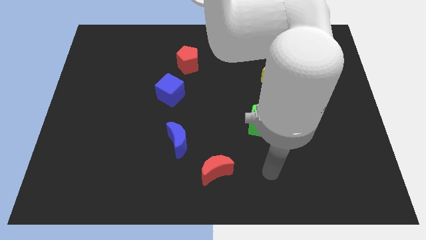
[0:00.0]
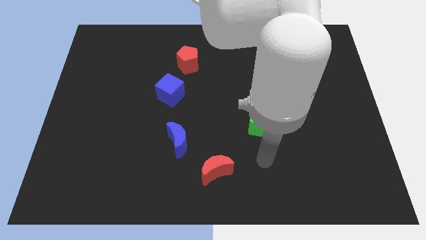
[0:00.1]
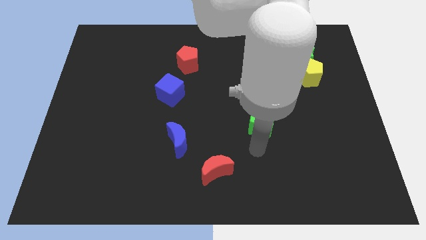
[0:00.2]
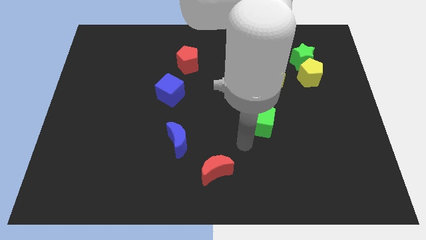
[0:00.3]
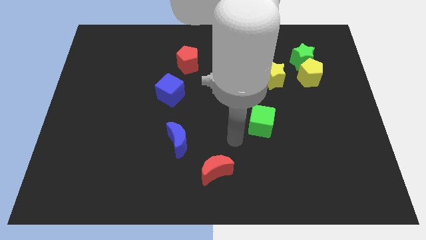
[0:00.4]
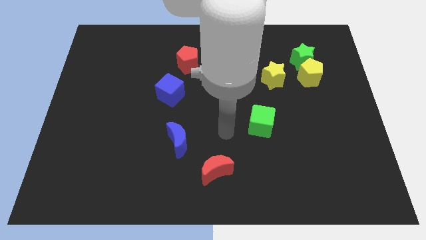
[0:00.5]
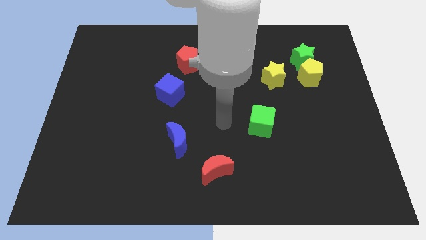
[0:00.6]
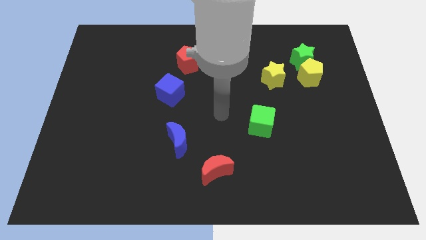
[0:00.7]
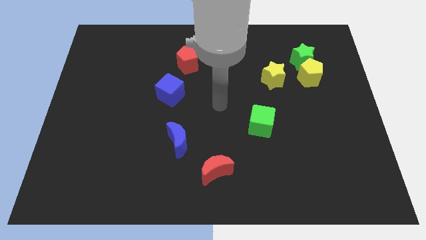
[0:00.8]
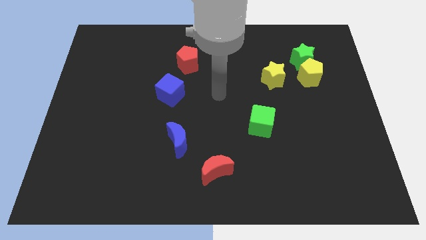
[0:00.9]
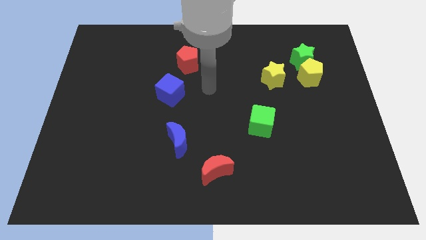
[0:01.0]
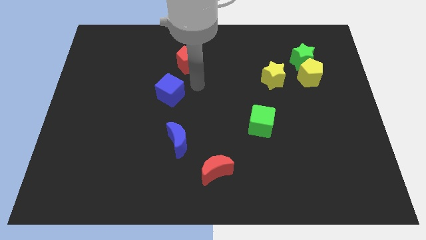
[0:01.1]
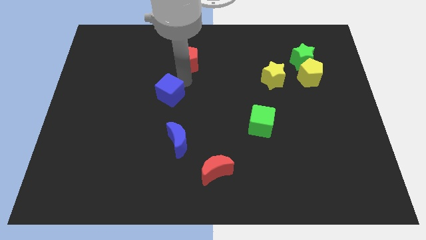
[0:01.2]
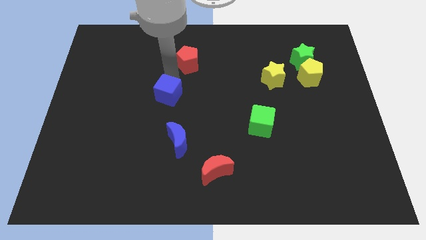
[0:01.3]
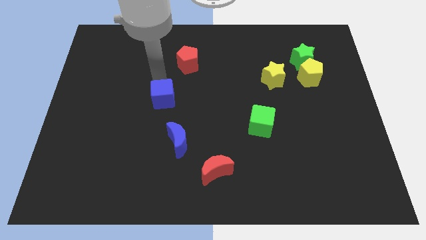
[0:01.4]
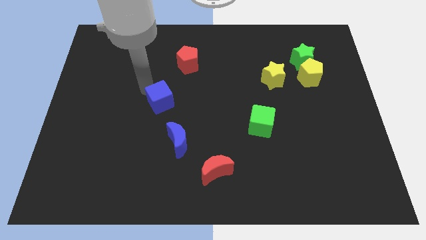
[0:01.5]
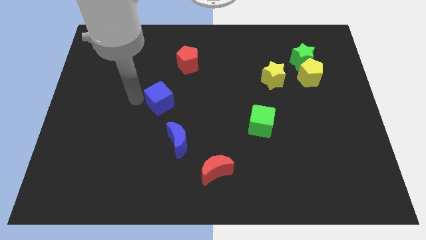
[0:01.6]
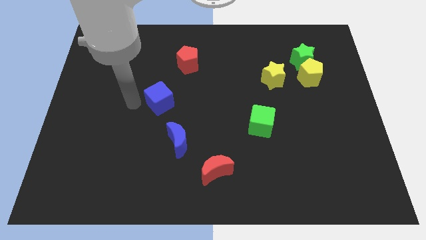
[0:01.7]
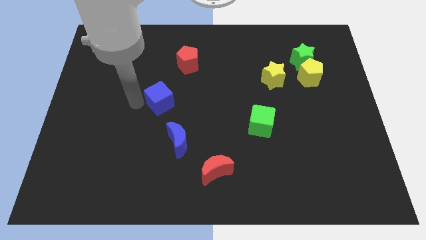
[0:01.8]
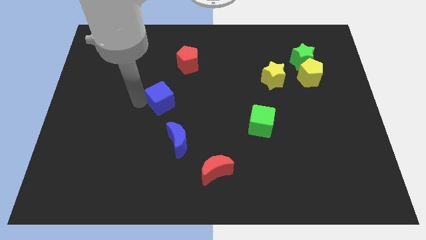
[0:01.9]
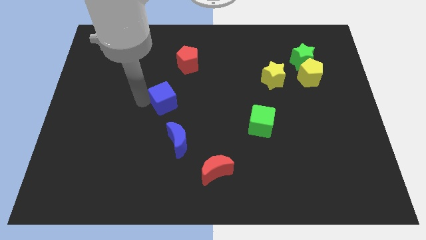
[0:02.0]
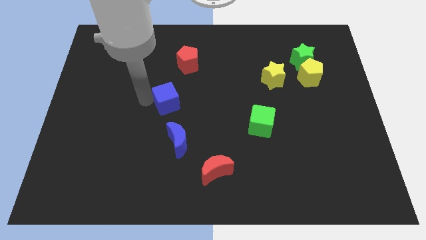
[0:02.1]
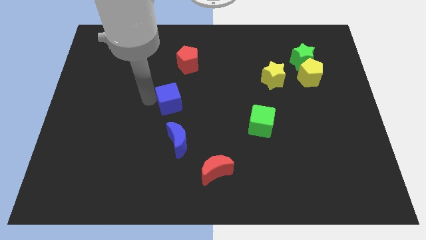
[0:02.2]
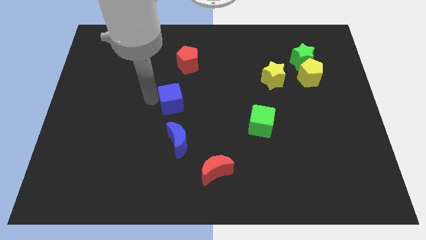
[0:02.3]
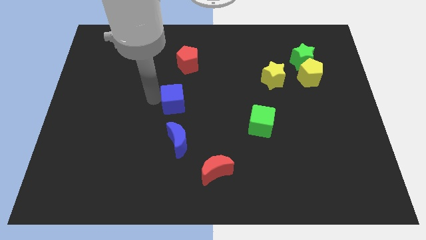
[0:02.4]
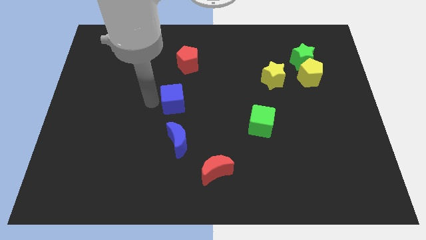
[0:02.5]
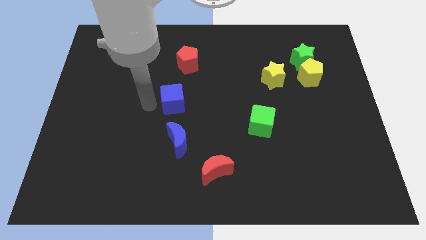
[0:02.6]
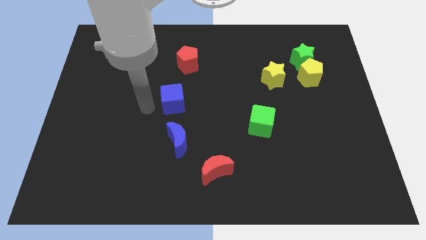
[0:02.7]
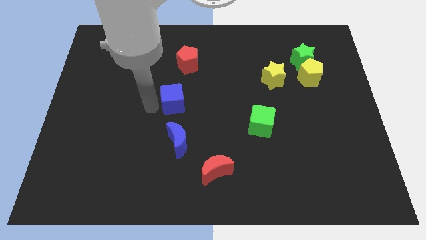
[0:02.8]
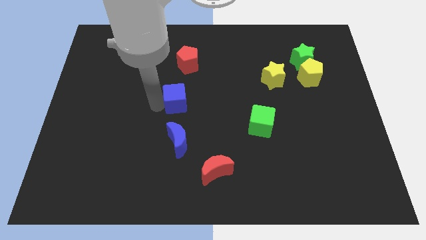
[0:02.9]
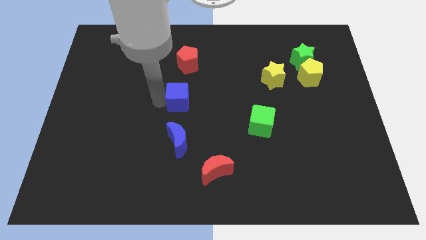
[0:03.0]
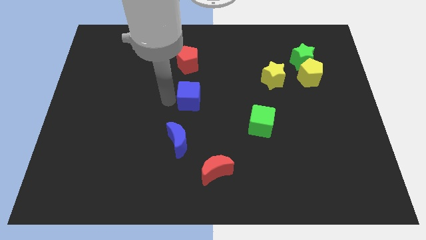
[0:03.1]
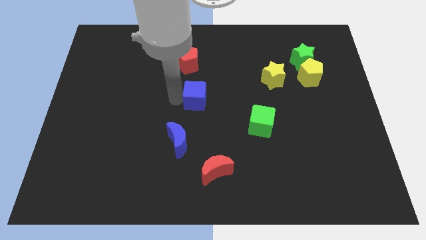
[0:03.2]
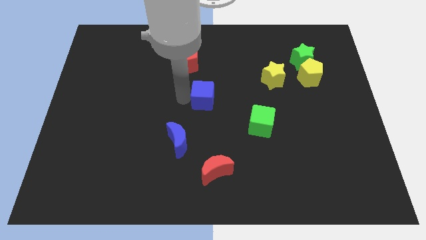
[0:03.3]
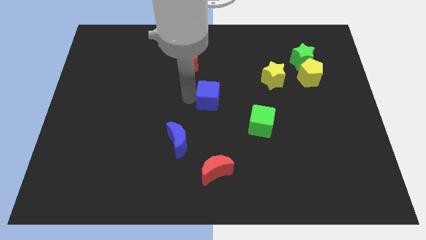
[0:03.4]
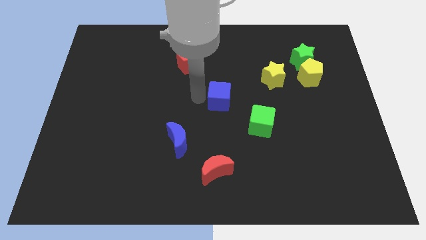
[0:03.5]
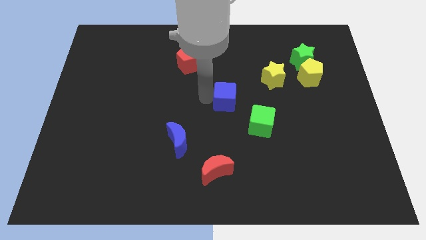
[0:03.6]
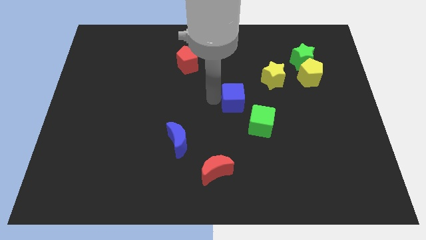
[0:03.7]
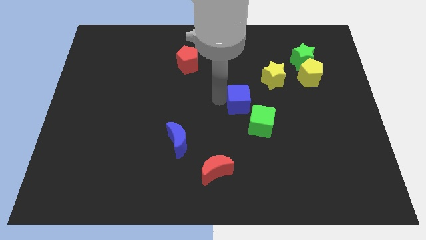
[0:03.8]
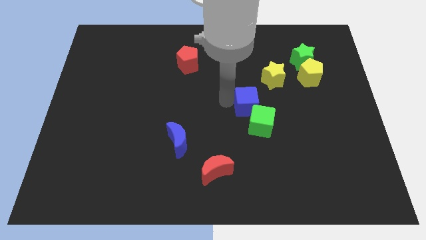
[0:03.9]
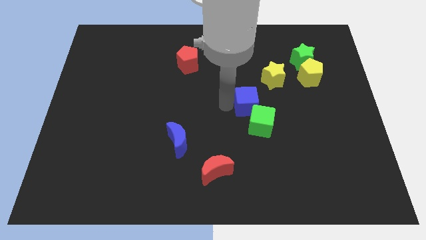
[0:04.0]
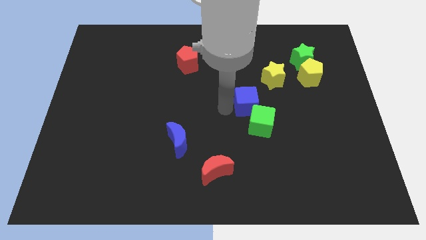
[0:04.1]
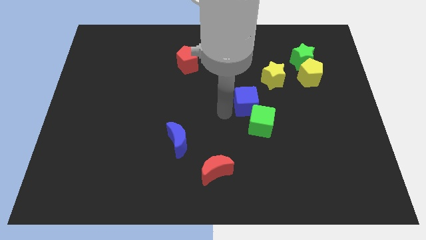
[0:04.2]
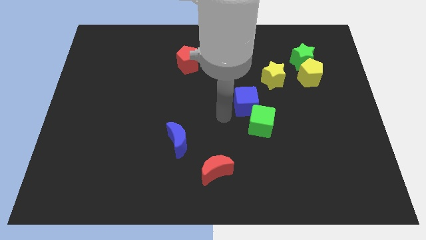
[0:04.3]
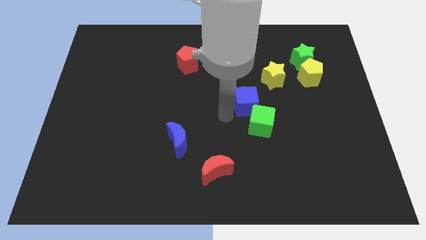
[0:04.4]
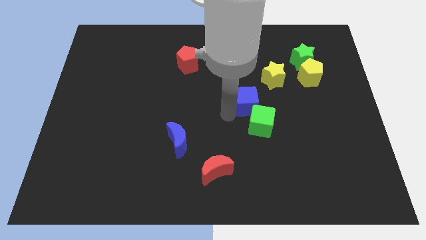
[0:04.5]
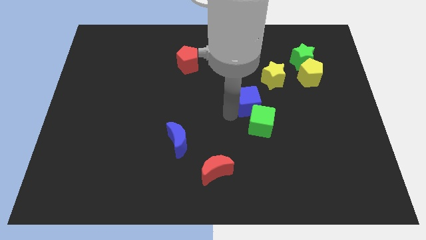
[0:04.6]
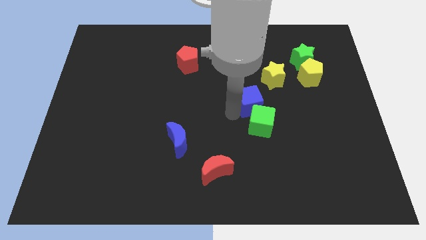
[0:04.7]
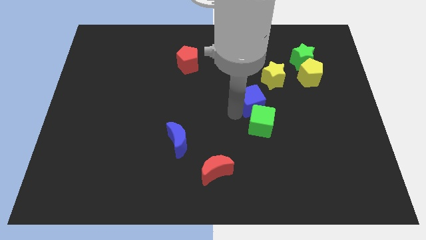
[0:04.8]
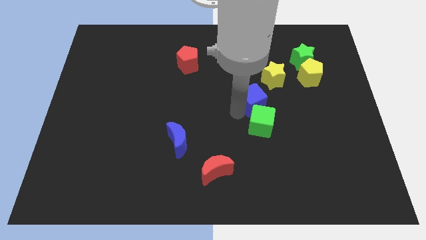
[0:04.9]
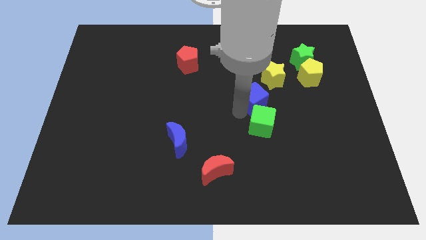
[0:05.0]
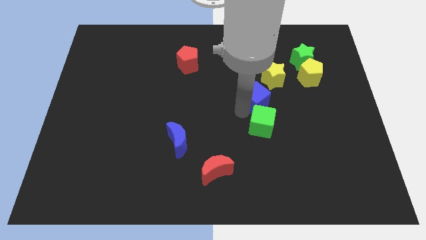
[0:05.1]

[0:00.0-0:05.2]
slide the blue cube to the right

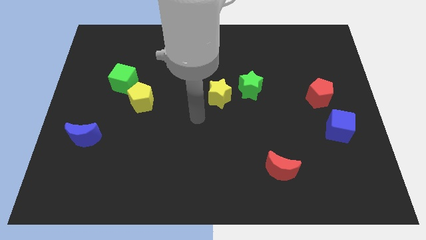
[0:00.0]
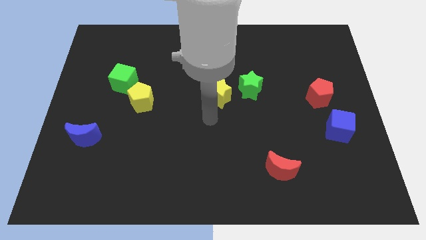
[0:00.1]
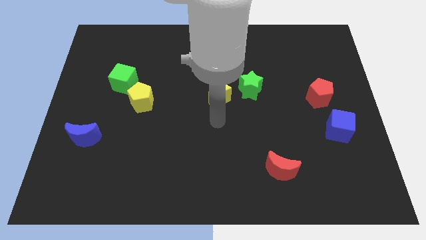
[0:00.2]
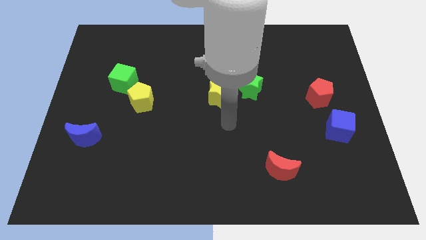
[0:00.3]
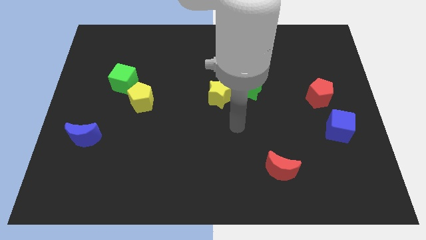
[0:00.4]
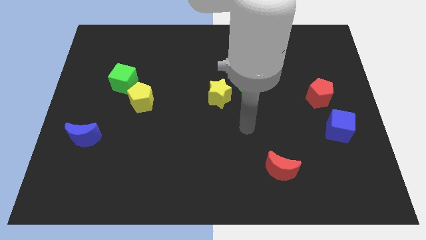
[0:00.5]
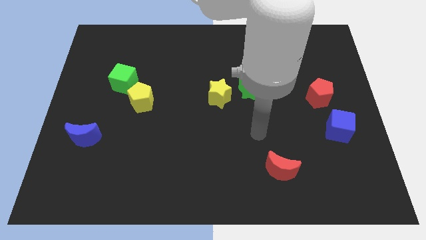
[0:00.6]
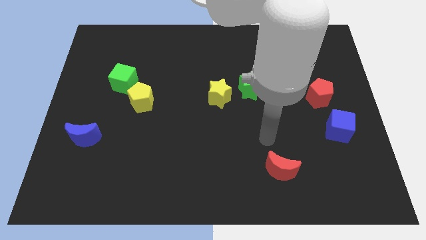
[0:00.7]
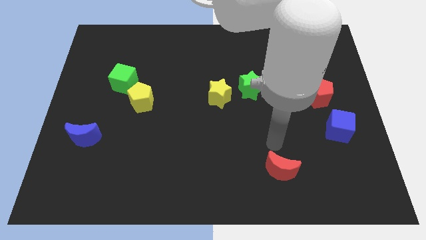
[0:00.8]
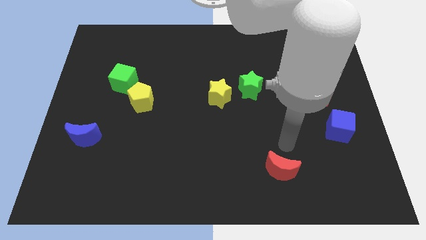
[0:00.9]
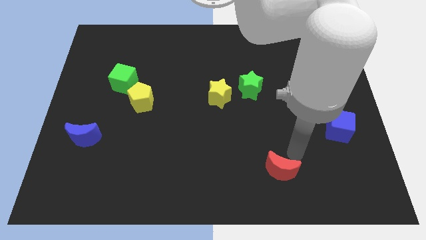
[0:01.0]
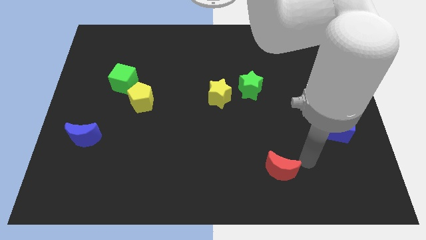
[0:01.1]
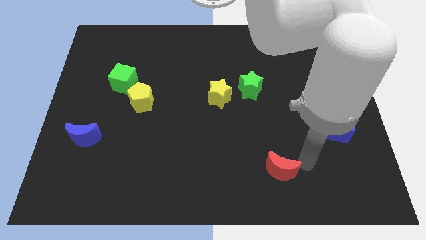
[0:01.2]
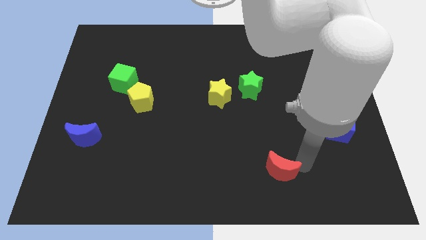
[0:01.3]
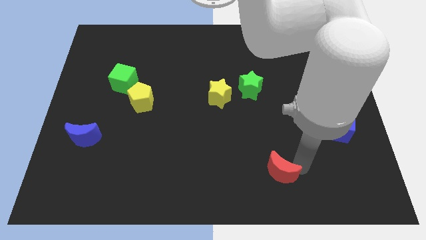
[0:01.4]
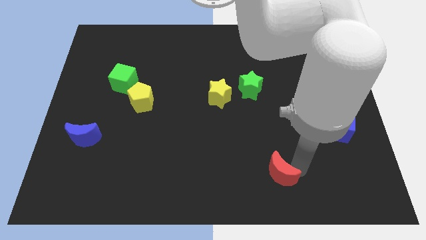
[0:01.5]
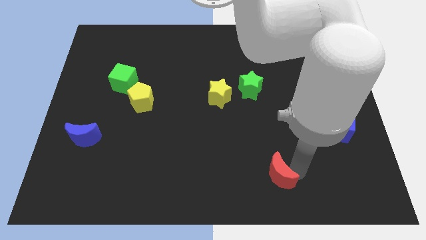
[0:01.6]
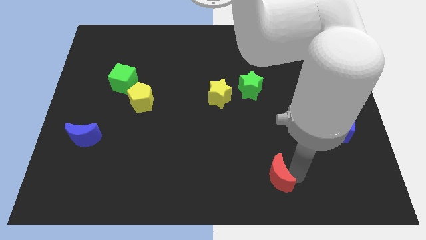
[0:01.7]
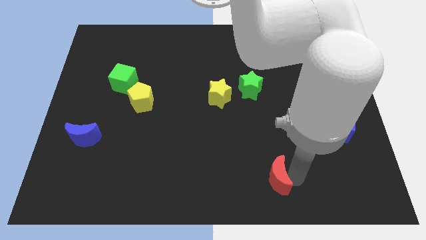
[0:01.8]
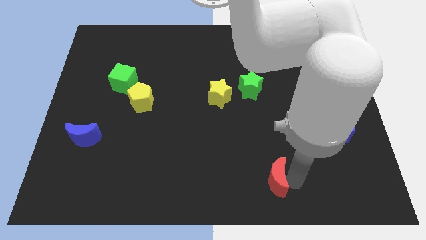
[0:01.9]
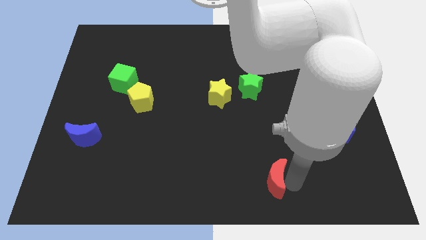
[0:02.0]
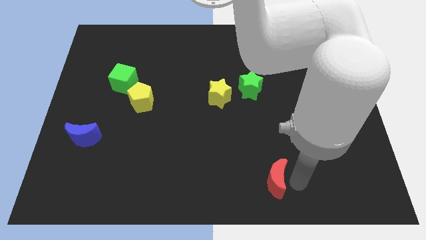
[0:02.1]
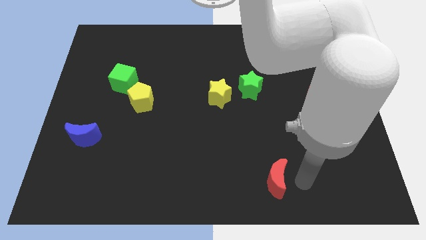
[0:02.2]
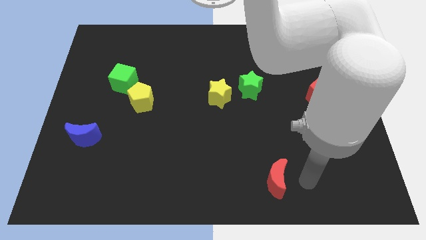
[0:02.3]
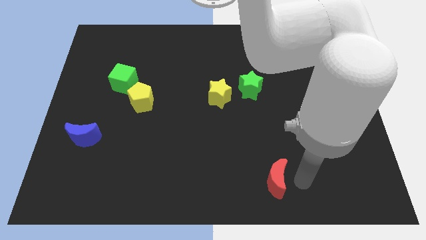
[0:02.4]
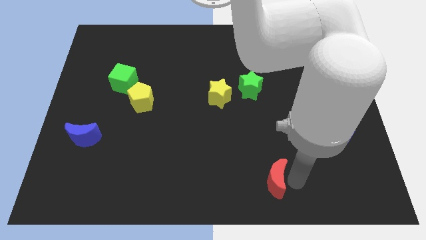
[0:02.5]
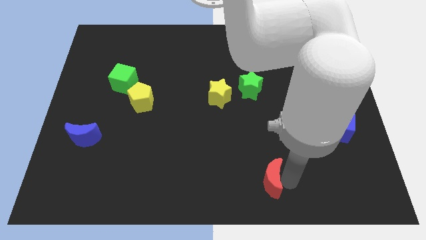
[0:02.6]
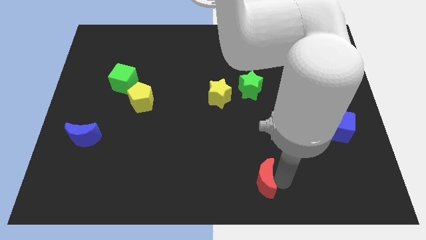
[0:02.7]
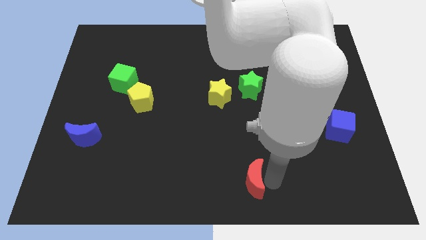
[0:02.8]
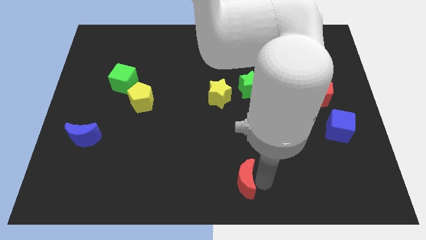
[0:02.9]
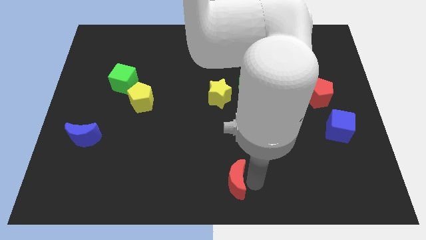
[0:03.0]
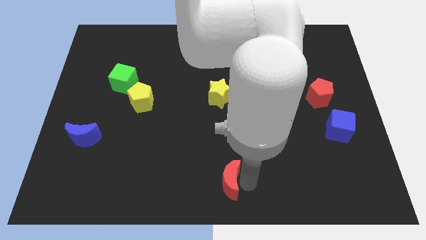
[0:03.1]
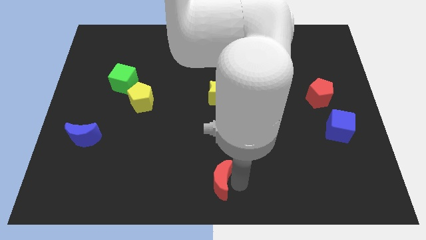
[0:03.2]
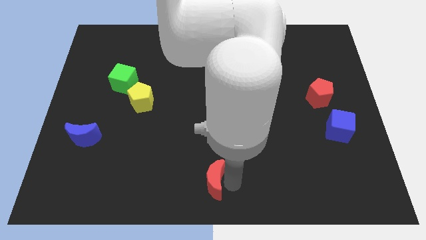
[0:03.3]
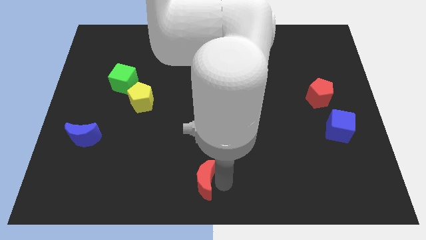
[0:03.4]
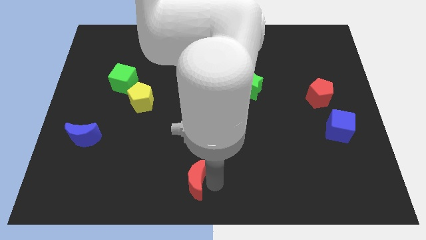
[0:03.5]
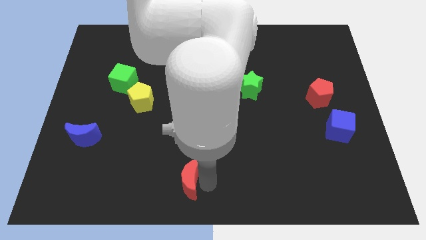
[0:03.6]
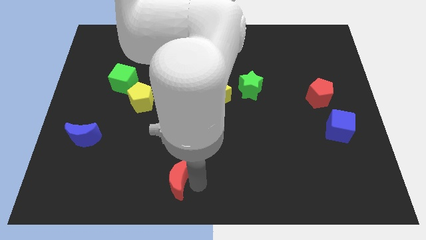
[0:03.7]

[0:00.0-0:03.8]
move the red moon left
